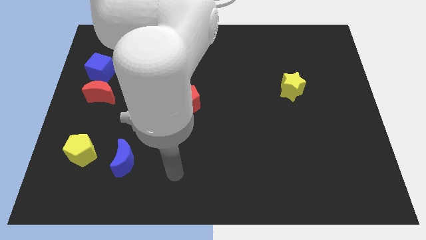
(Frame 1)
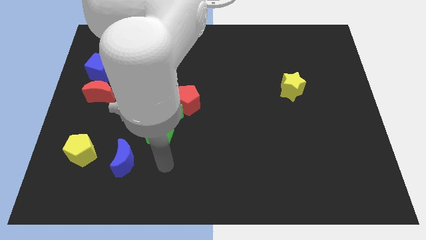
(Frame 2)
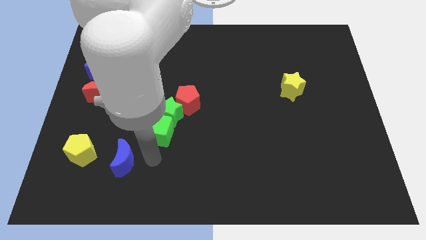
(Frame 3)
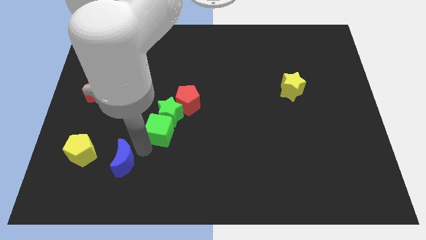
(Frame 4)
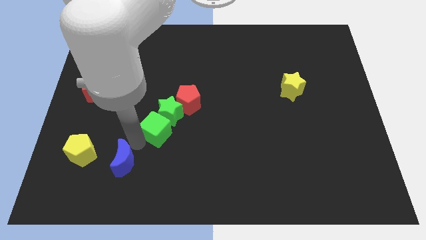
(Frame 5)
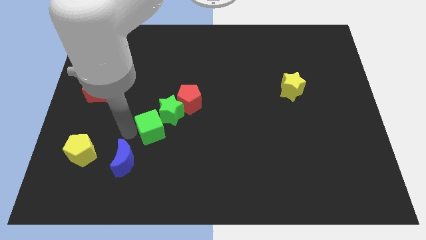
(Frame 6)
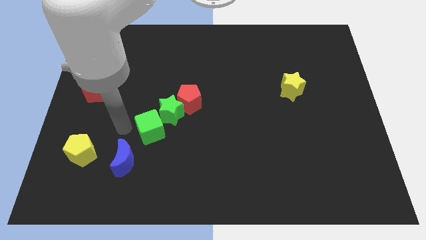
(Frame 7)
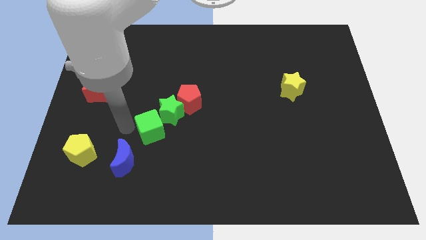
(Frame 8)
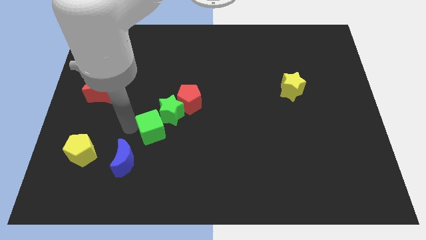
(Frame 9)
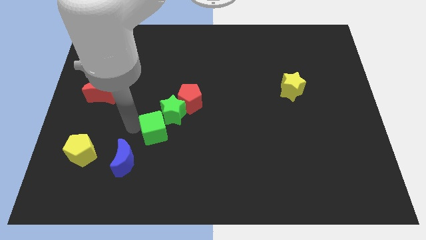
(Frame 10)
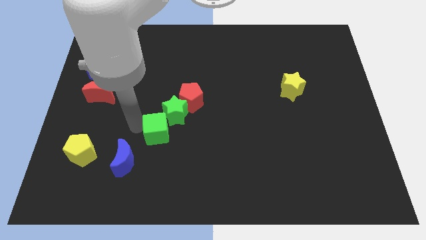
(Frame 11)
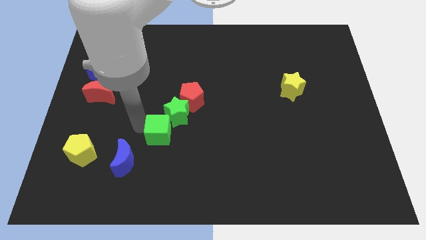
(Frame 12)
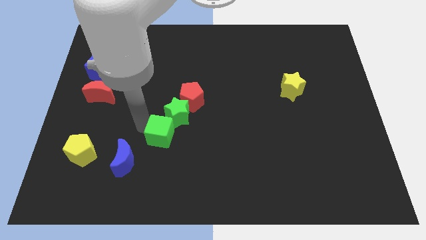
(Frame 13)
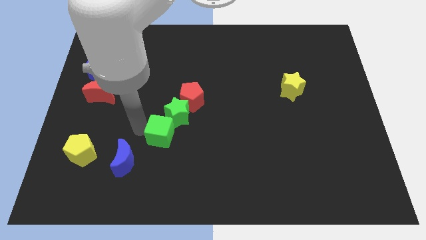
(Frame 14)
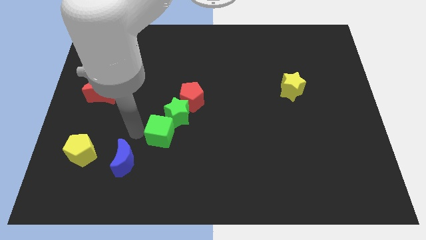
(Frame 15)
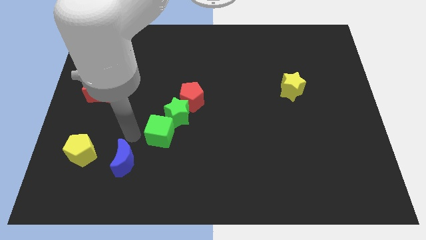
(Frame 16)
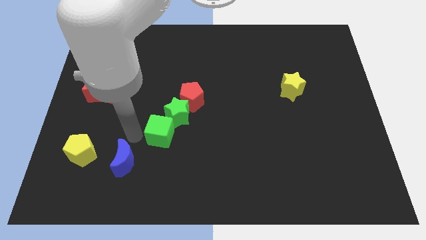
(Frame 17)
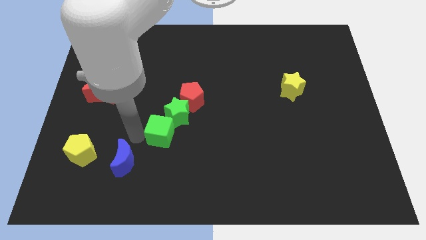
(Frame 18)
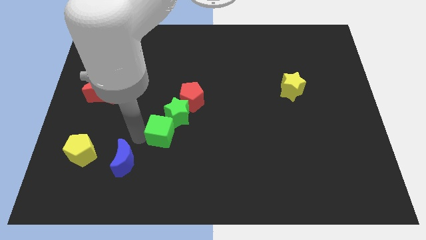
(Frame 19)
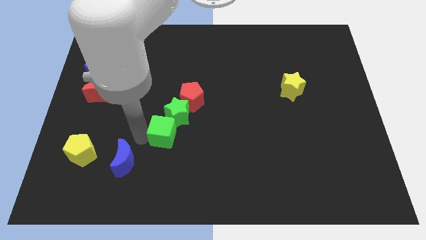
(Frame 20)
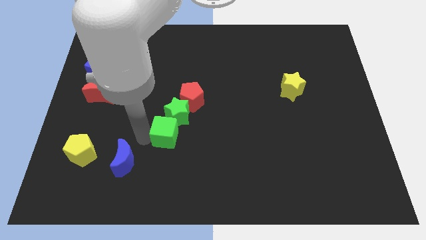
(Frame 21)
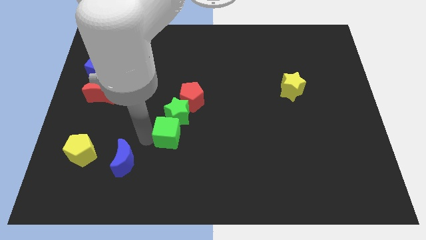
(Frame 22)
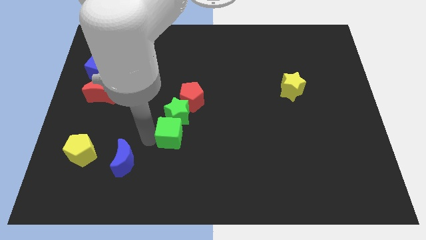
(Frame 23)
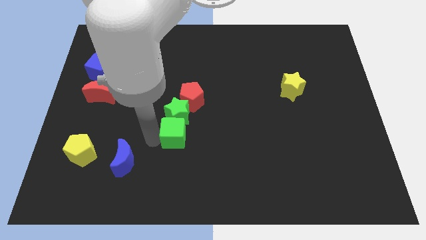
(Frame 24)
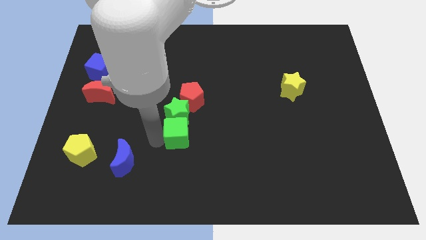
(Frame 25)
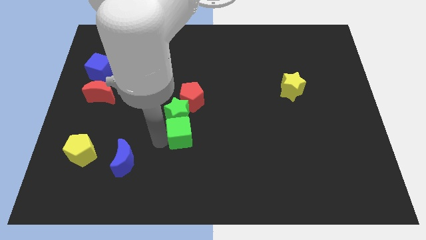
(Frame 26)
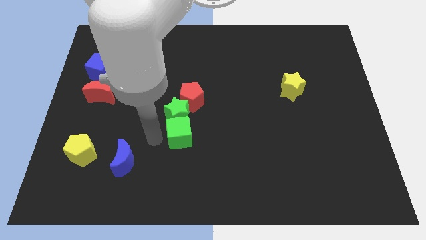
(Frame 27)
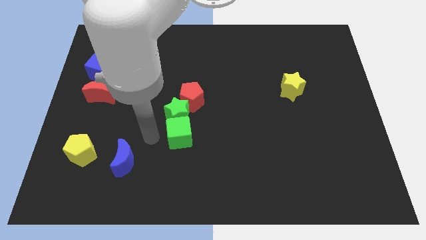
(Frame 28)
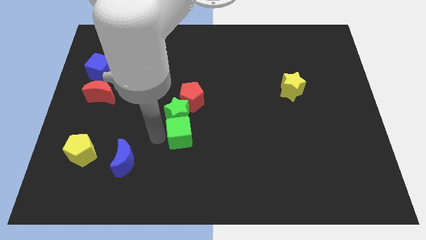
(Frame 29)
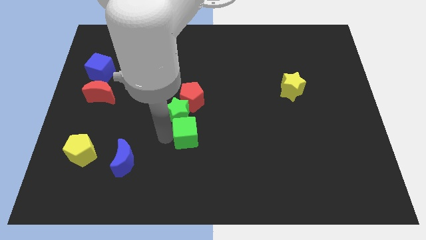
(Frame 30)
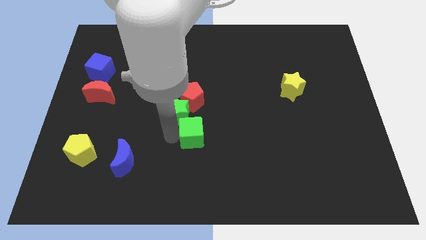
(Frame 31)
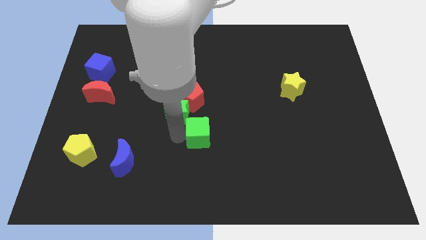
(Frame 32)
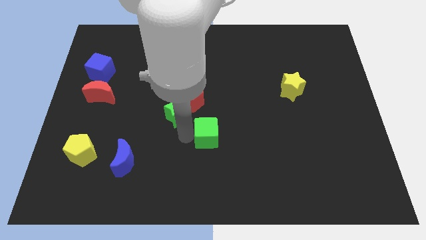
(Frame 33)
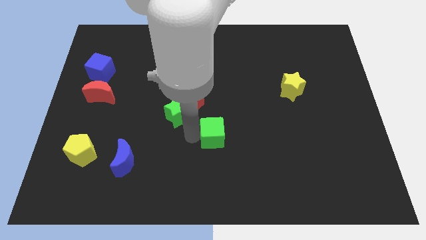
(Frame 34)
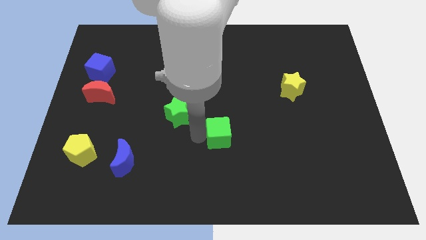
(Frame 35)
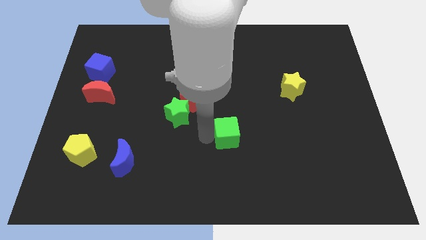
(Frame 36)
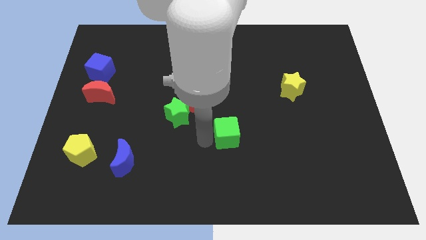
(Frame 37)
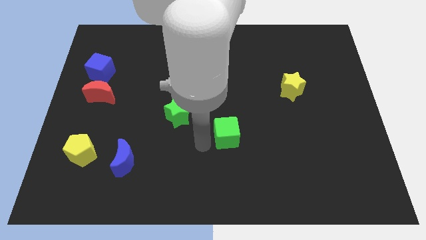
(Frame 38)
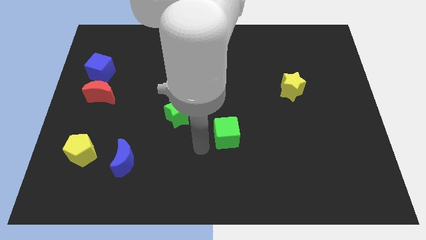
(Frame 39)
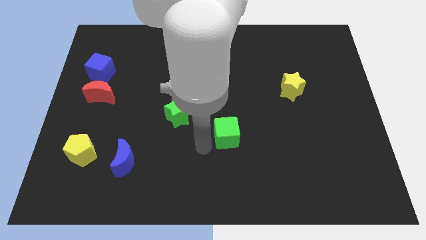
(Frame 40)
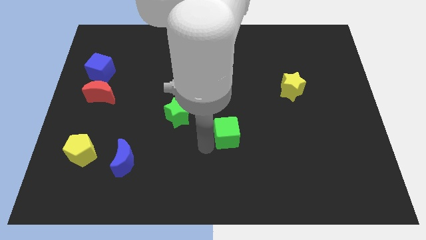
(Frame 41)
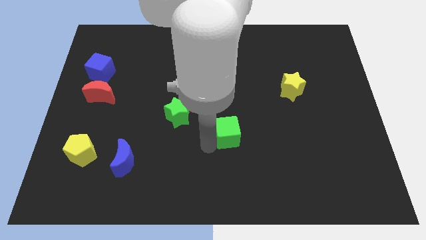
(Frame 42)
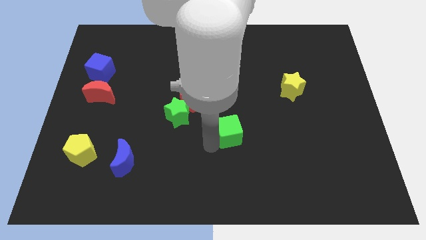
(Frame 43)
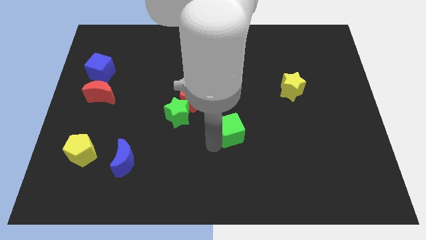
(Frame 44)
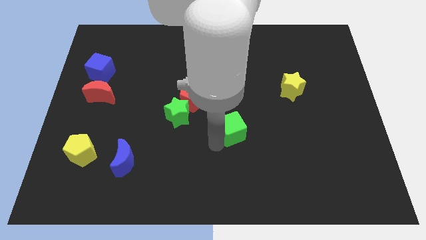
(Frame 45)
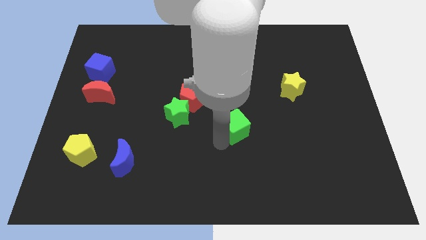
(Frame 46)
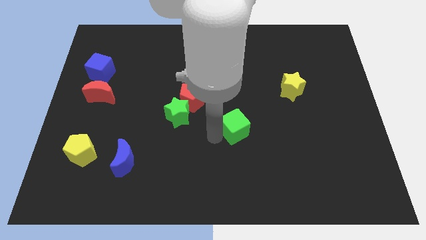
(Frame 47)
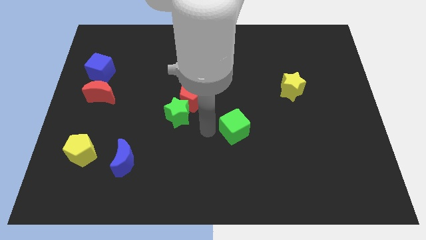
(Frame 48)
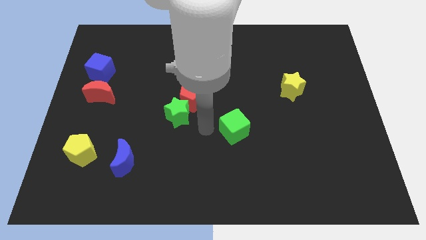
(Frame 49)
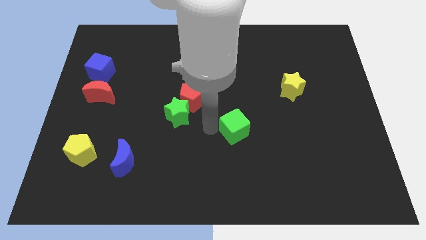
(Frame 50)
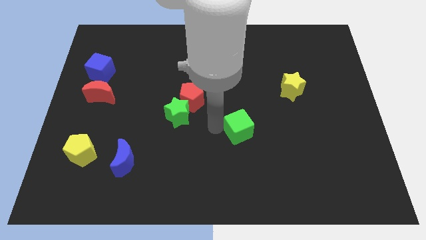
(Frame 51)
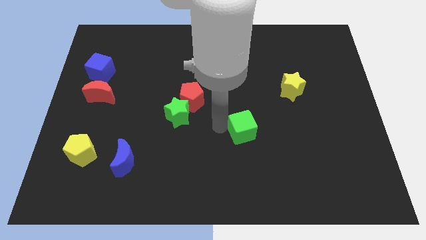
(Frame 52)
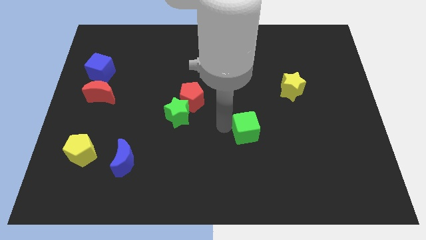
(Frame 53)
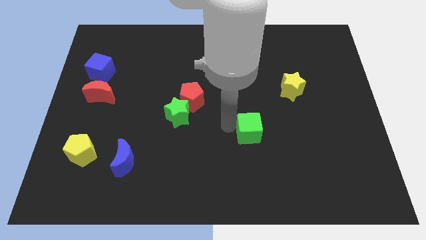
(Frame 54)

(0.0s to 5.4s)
slide the green cube to the right

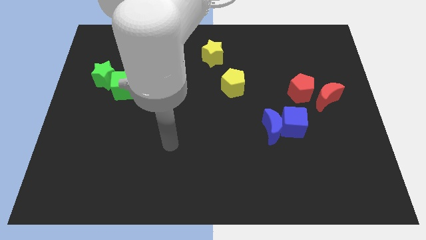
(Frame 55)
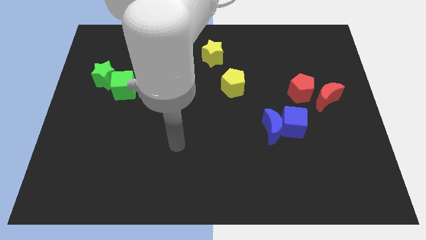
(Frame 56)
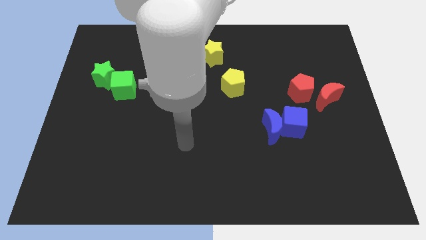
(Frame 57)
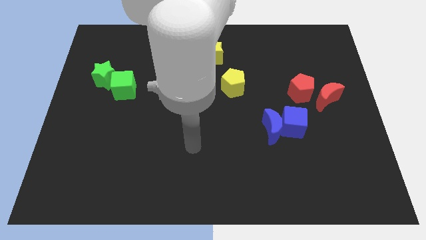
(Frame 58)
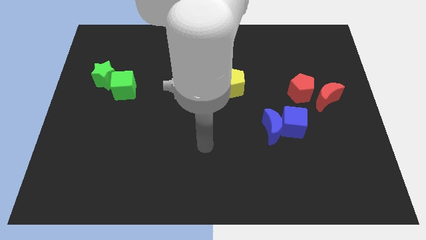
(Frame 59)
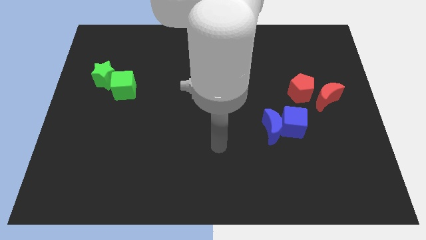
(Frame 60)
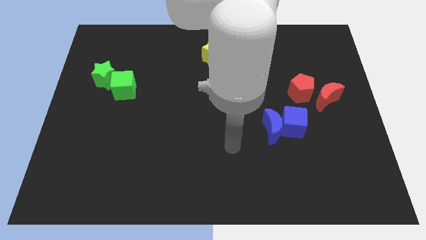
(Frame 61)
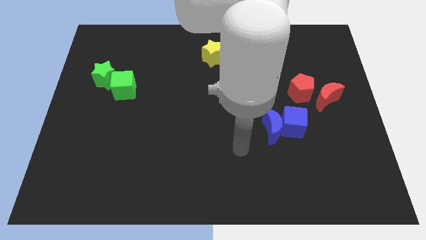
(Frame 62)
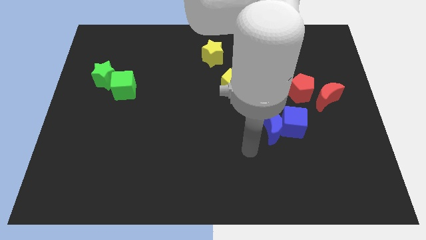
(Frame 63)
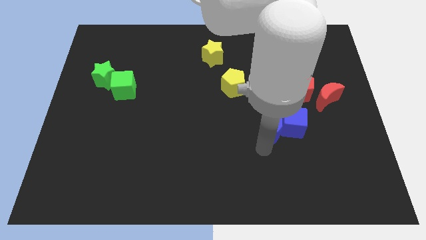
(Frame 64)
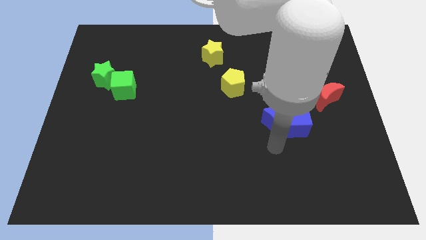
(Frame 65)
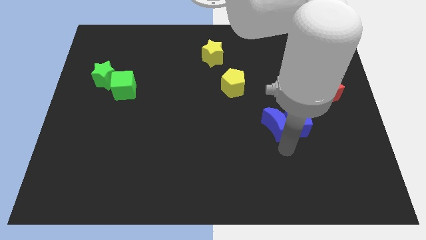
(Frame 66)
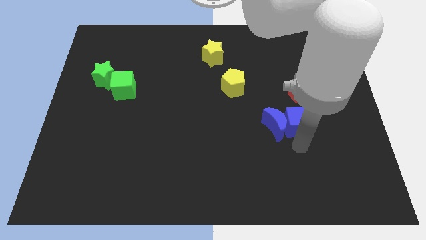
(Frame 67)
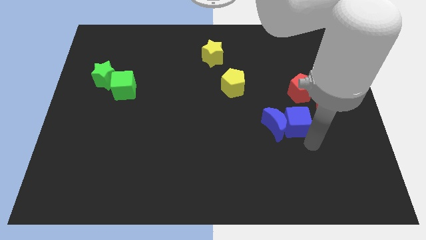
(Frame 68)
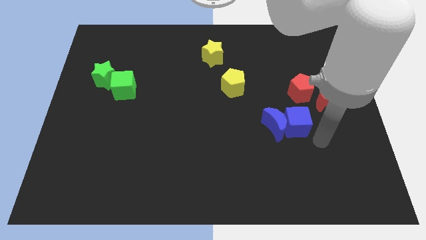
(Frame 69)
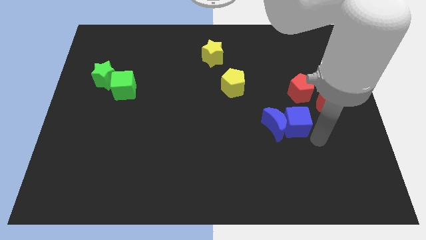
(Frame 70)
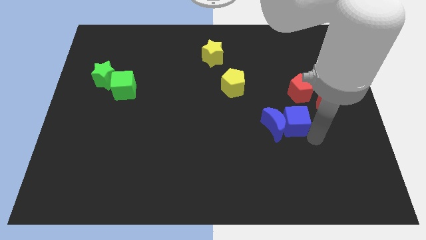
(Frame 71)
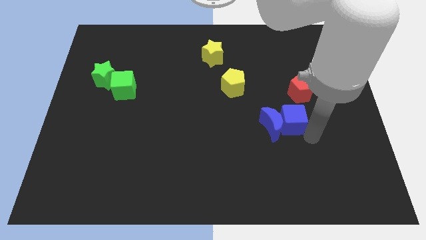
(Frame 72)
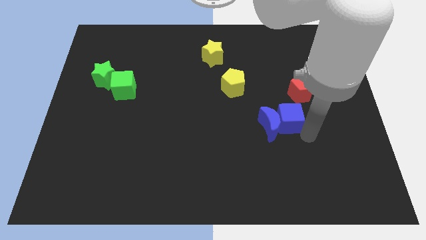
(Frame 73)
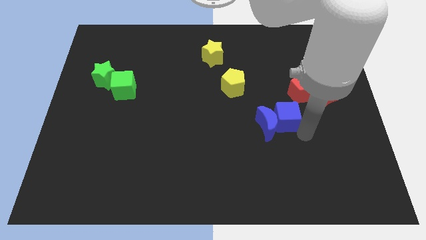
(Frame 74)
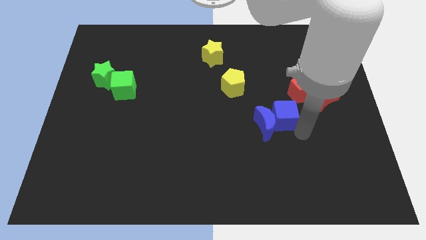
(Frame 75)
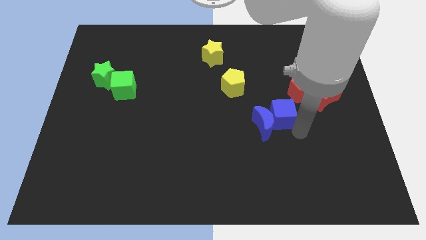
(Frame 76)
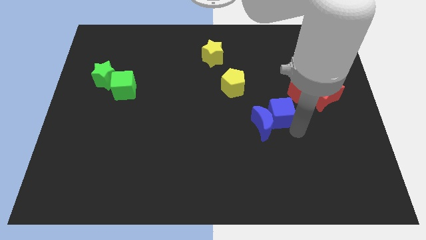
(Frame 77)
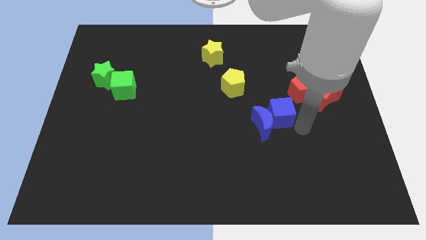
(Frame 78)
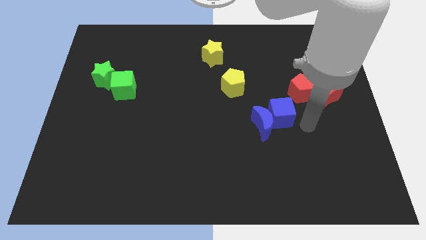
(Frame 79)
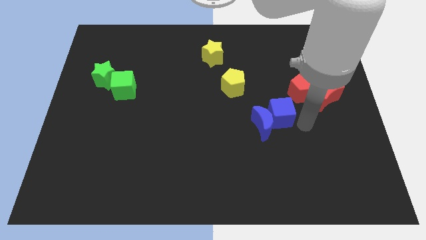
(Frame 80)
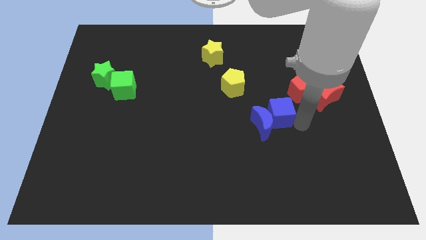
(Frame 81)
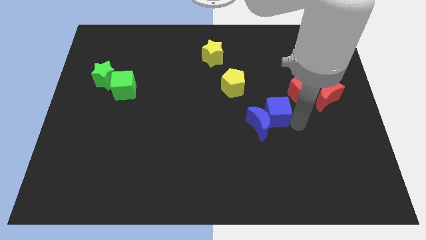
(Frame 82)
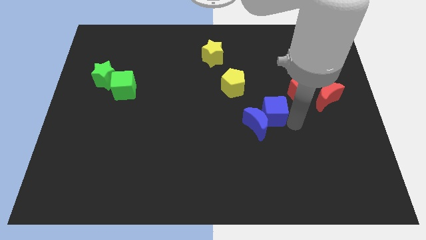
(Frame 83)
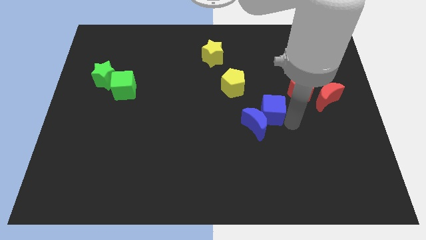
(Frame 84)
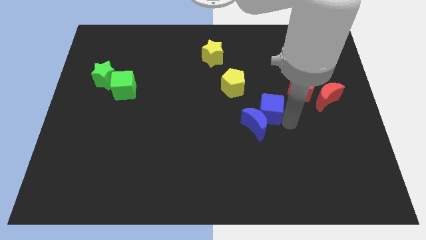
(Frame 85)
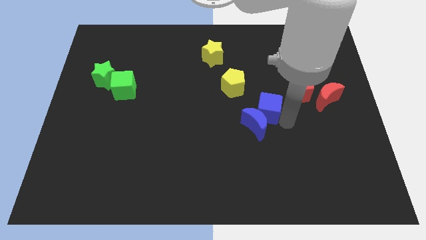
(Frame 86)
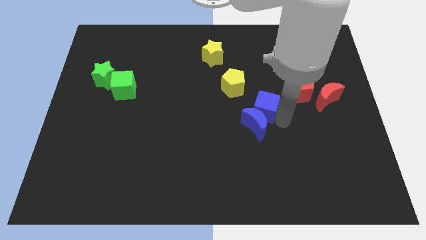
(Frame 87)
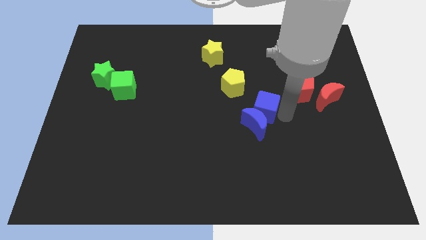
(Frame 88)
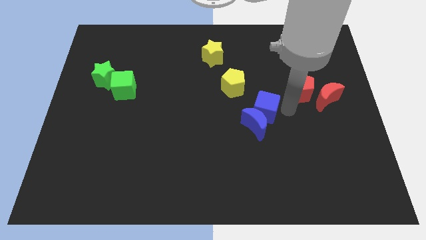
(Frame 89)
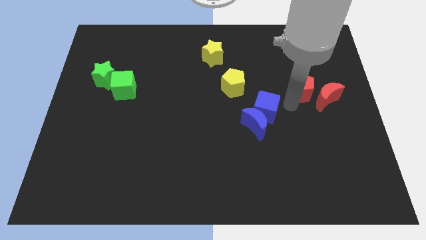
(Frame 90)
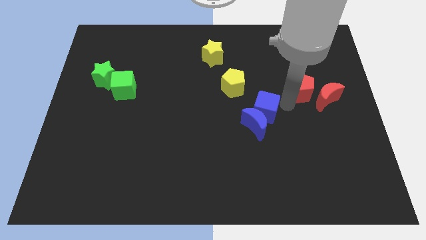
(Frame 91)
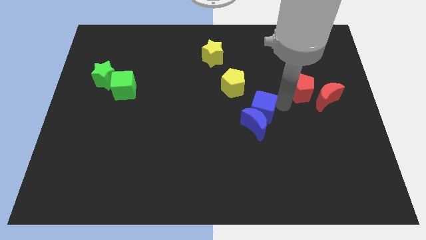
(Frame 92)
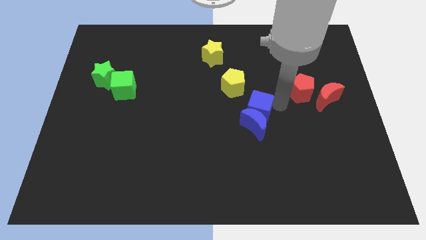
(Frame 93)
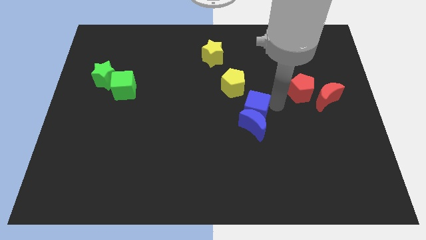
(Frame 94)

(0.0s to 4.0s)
push the blue cube left somewhat
